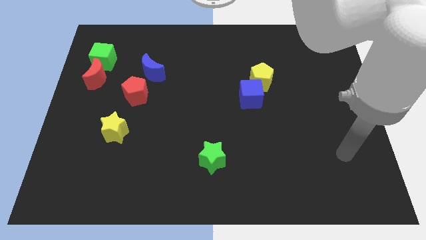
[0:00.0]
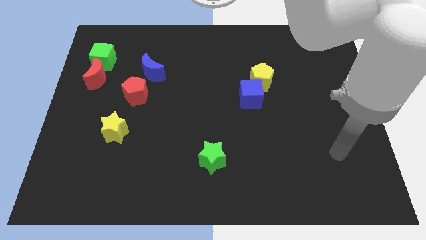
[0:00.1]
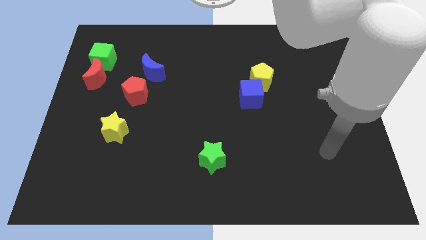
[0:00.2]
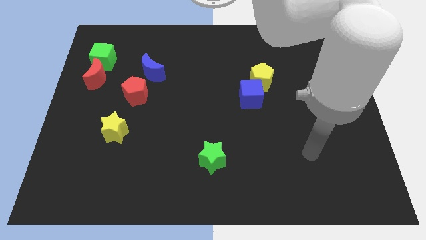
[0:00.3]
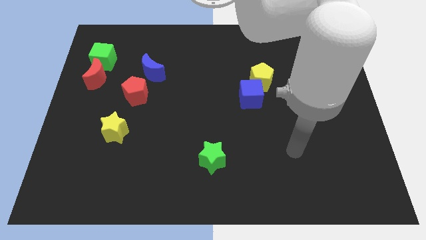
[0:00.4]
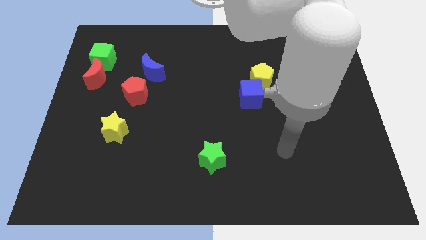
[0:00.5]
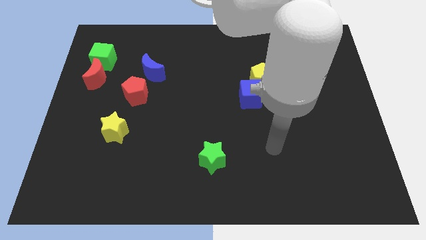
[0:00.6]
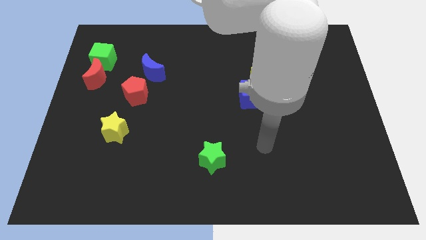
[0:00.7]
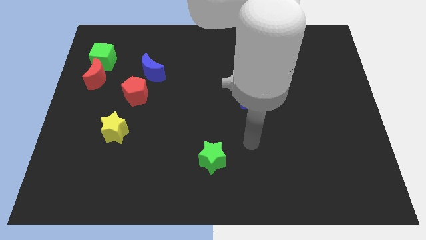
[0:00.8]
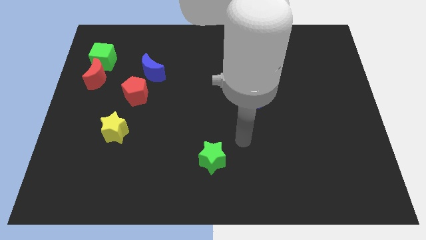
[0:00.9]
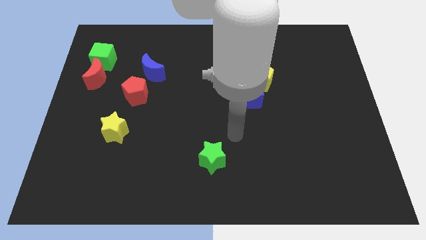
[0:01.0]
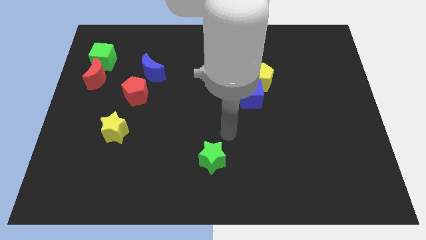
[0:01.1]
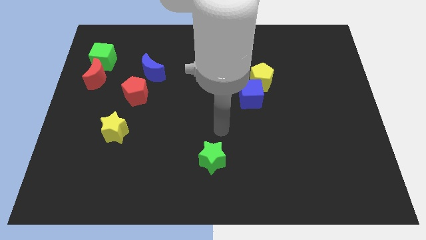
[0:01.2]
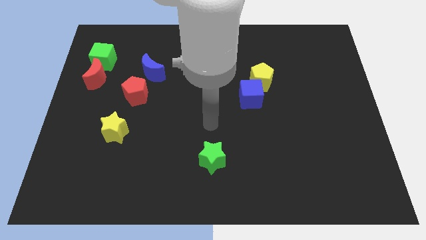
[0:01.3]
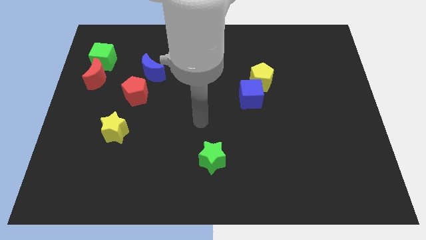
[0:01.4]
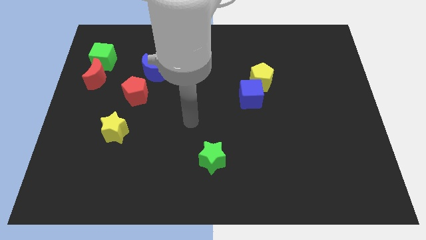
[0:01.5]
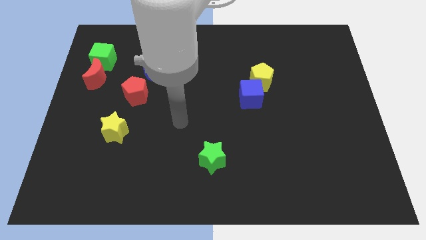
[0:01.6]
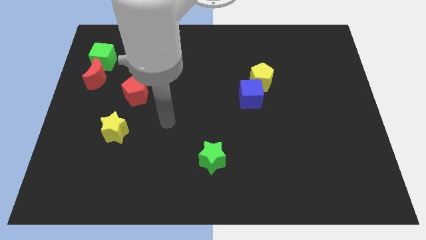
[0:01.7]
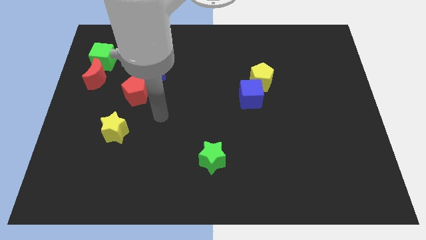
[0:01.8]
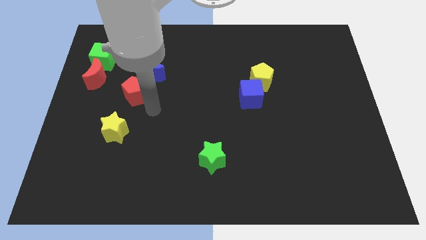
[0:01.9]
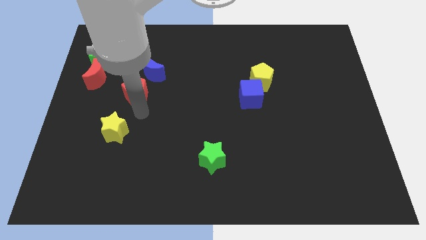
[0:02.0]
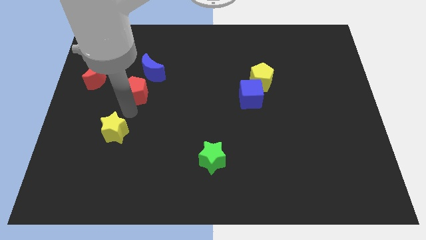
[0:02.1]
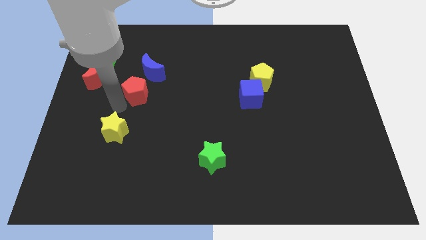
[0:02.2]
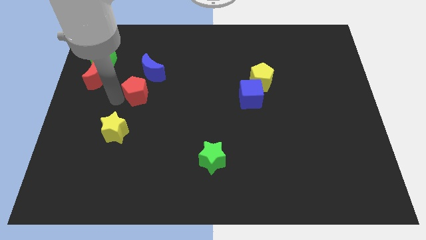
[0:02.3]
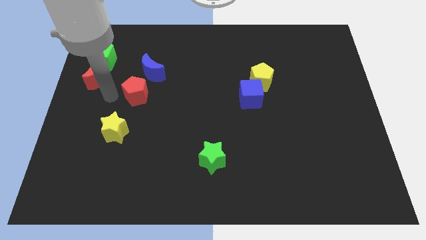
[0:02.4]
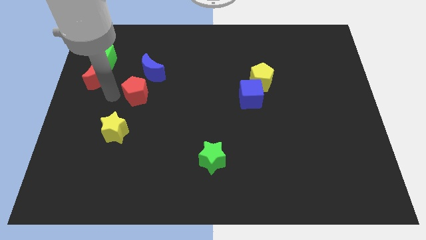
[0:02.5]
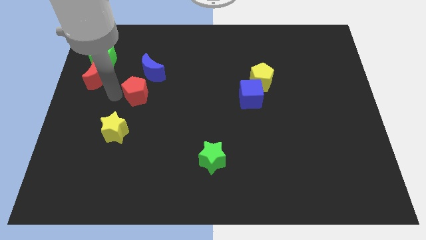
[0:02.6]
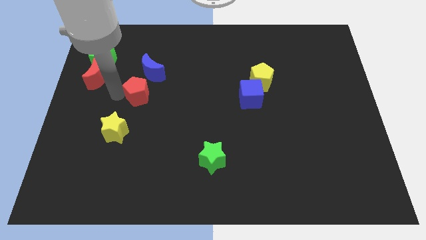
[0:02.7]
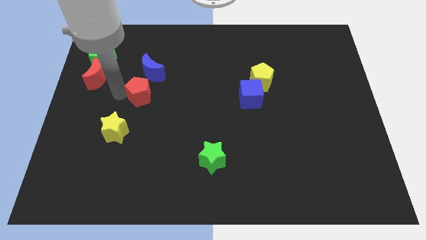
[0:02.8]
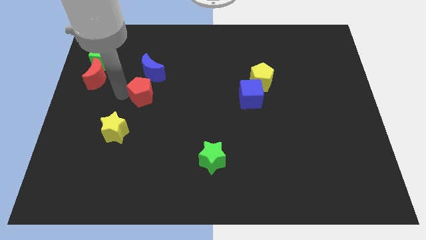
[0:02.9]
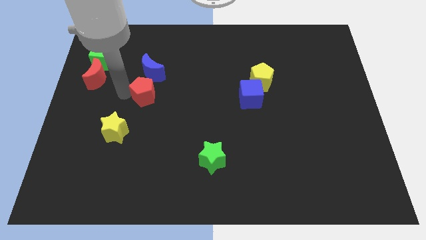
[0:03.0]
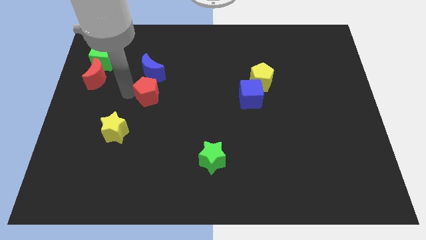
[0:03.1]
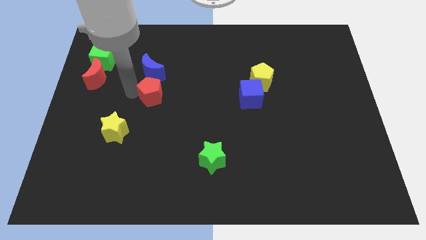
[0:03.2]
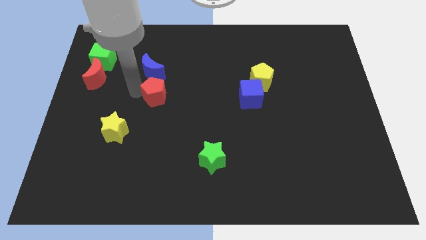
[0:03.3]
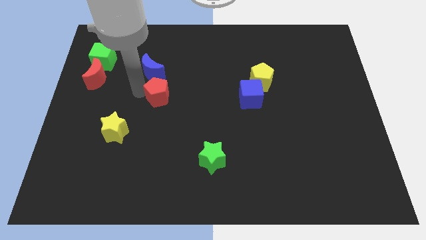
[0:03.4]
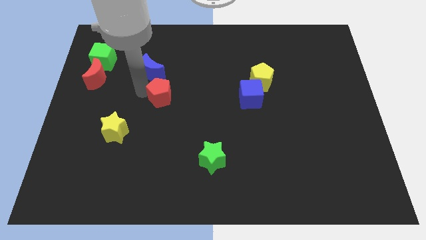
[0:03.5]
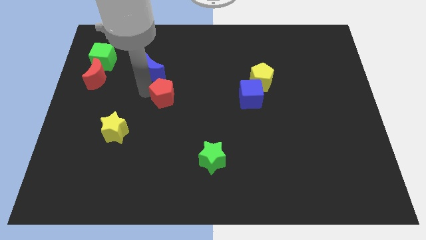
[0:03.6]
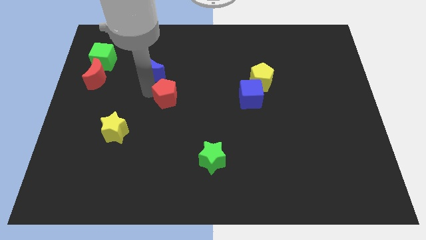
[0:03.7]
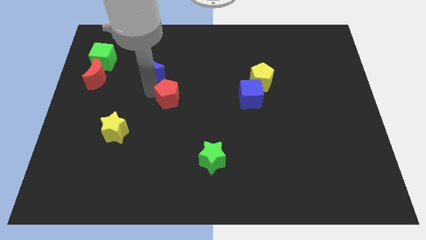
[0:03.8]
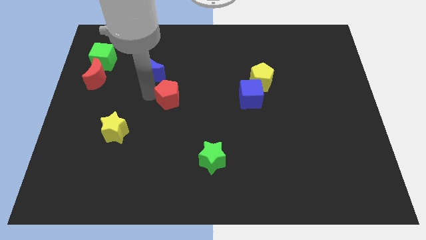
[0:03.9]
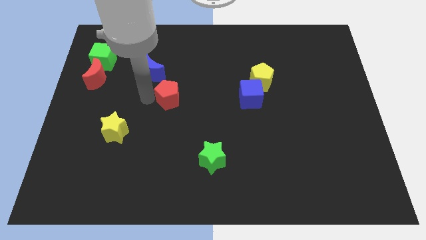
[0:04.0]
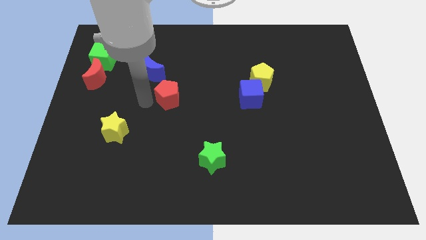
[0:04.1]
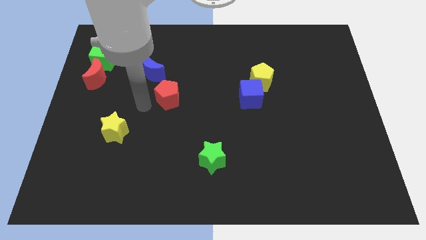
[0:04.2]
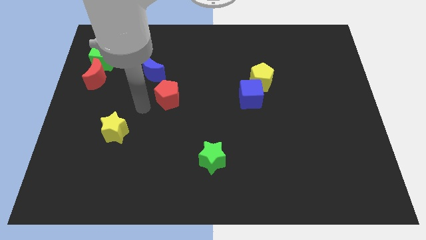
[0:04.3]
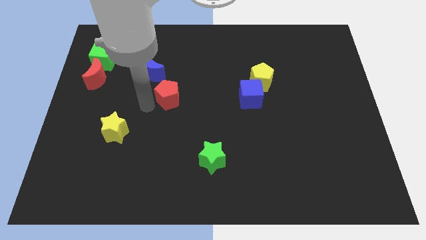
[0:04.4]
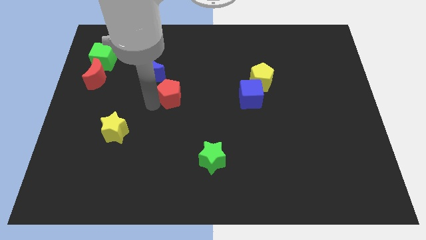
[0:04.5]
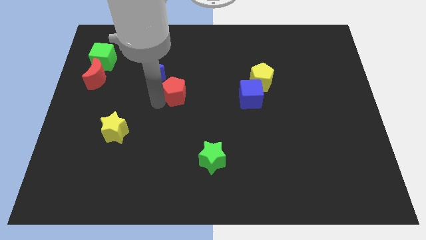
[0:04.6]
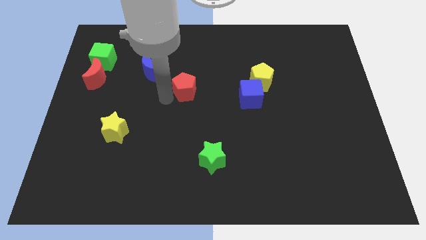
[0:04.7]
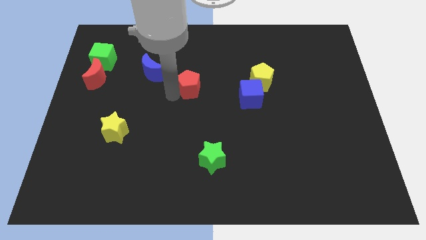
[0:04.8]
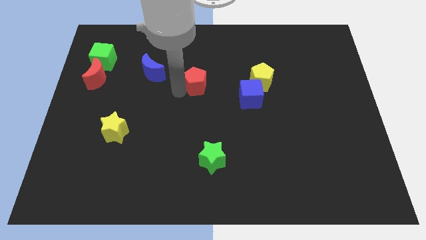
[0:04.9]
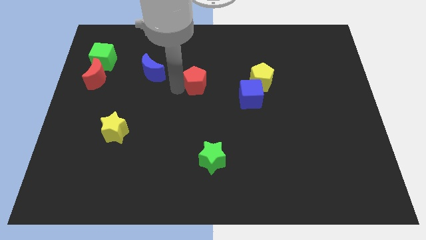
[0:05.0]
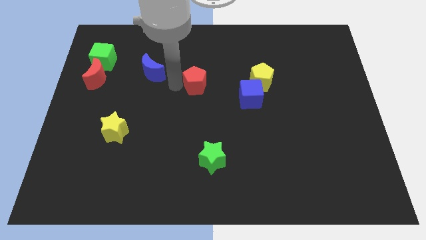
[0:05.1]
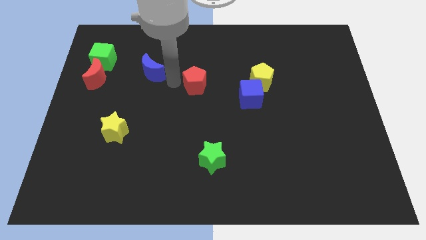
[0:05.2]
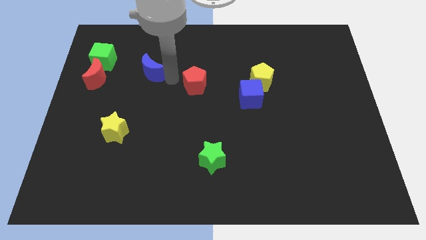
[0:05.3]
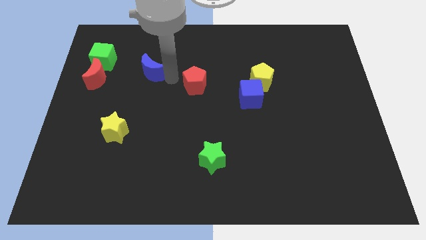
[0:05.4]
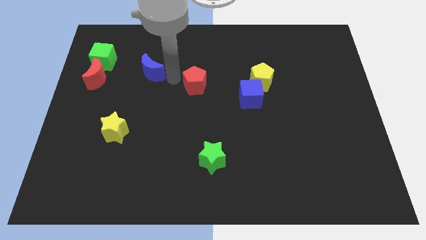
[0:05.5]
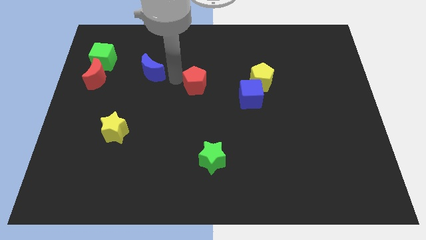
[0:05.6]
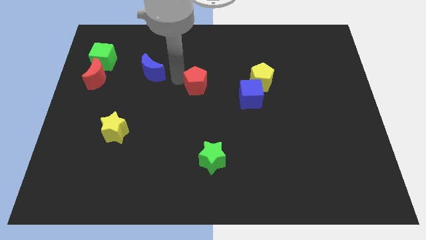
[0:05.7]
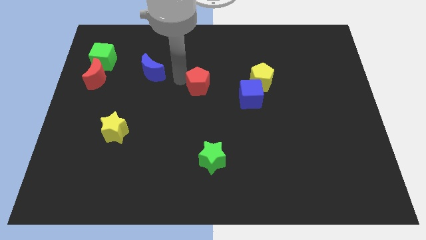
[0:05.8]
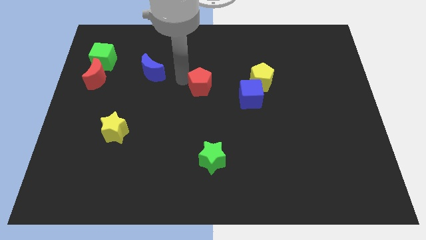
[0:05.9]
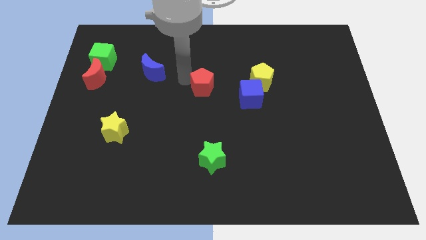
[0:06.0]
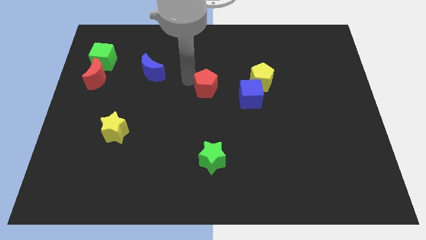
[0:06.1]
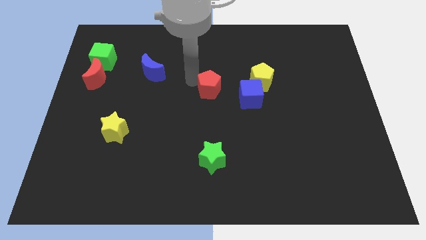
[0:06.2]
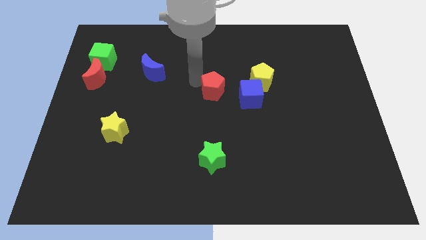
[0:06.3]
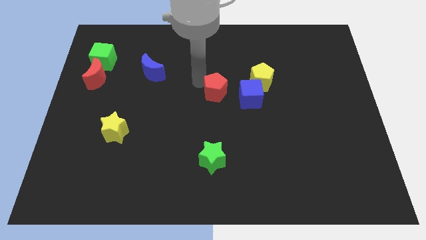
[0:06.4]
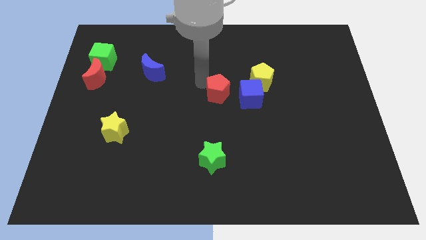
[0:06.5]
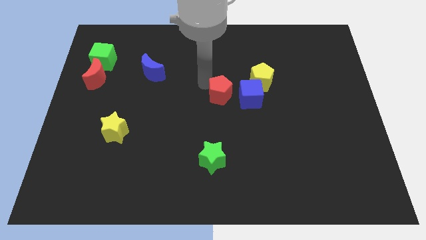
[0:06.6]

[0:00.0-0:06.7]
move the red pentagon to the bottom left of the yellow pentagon
